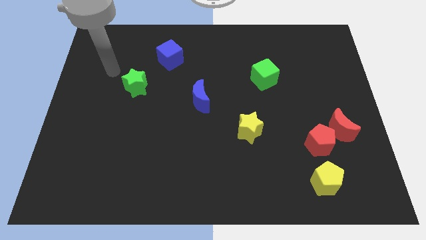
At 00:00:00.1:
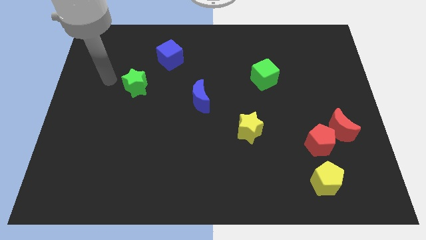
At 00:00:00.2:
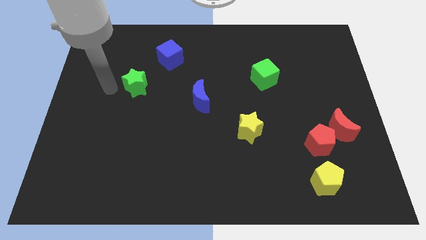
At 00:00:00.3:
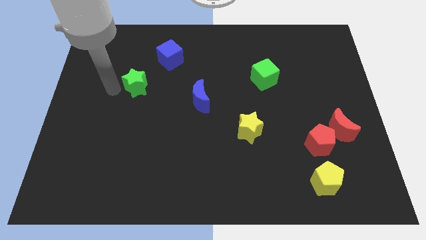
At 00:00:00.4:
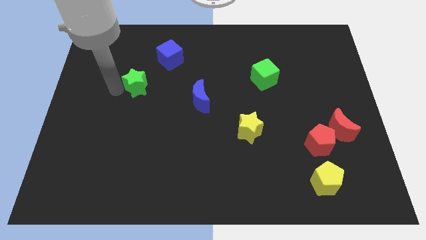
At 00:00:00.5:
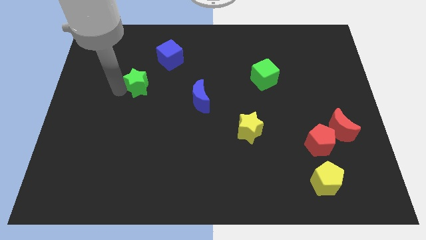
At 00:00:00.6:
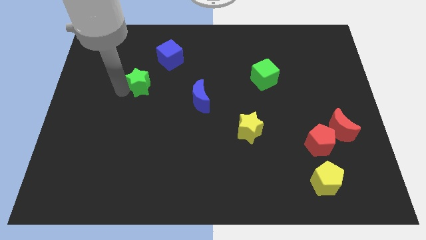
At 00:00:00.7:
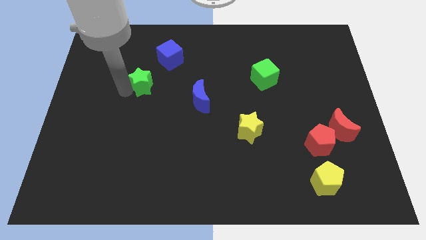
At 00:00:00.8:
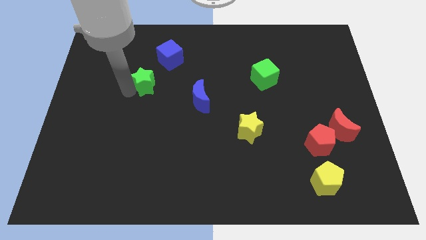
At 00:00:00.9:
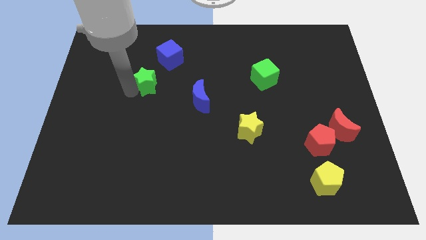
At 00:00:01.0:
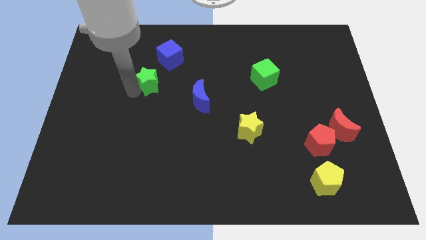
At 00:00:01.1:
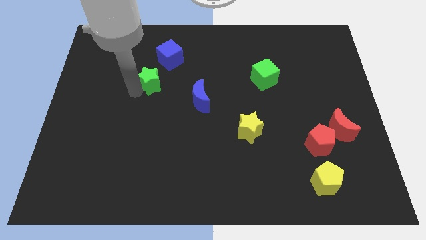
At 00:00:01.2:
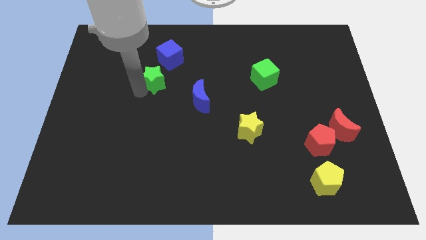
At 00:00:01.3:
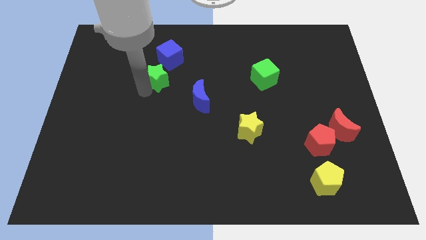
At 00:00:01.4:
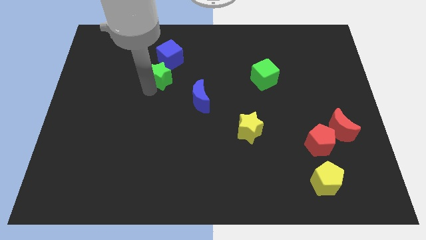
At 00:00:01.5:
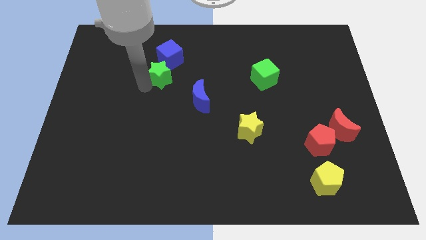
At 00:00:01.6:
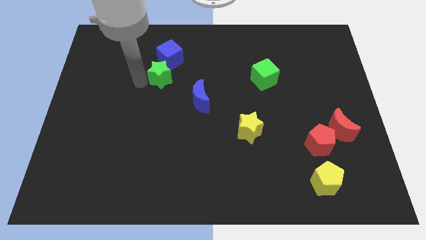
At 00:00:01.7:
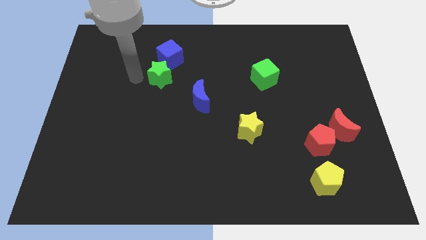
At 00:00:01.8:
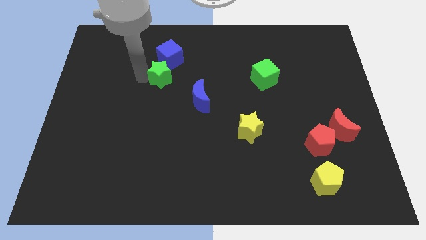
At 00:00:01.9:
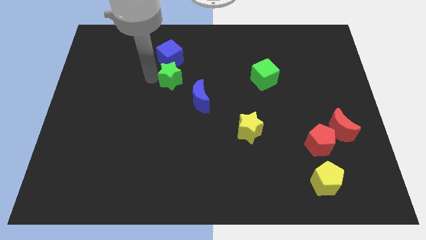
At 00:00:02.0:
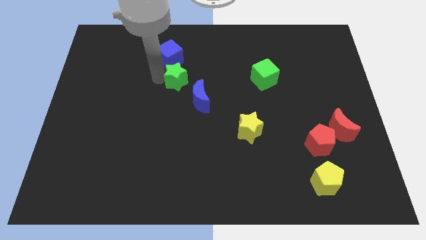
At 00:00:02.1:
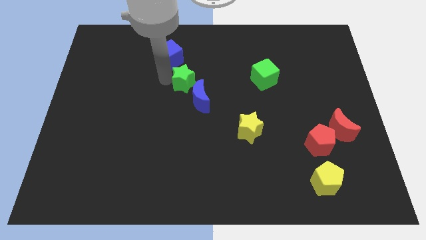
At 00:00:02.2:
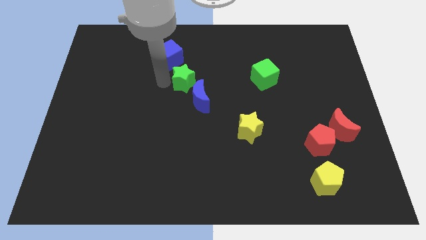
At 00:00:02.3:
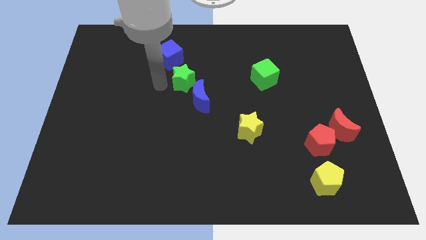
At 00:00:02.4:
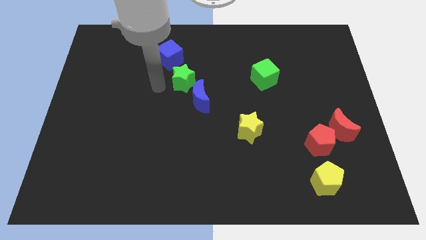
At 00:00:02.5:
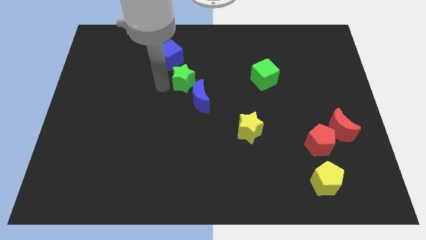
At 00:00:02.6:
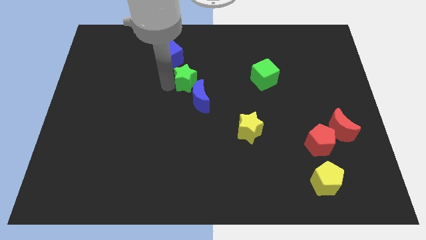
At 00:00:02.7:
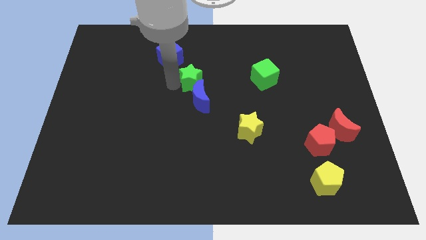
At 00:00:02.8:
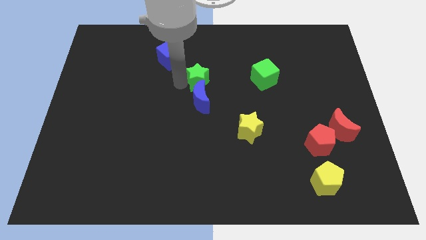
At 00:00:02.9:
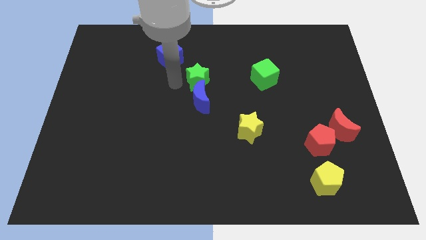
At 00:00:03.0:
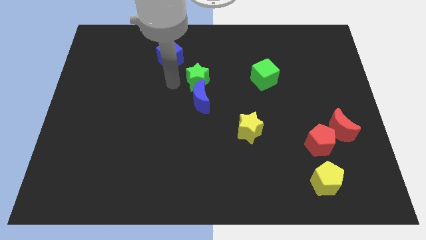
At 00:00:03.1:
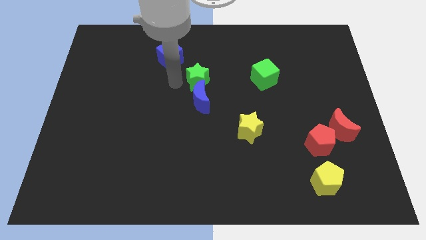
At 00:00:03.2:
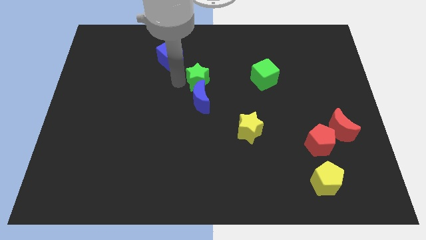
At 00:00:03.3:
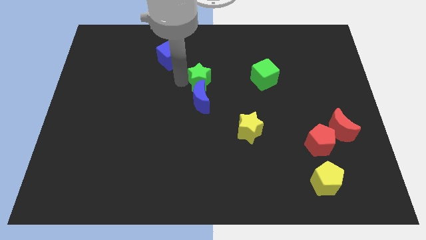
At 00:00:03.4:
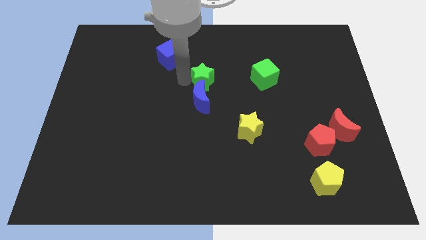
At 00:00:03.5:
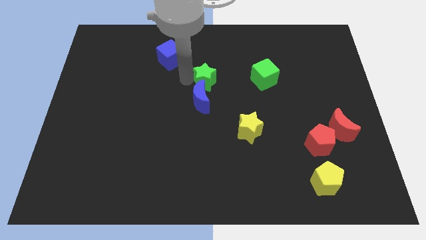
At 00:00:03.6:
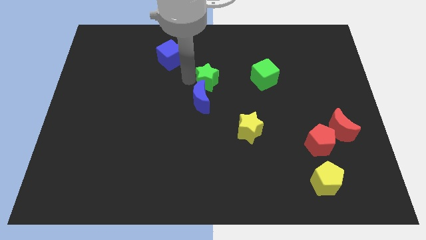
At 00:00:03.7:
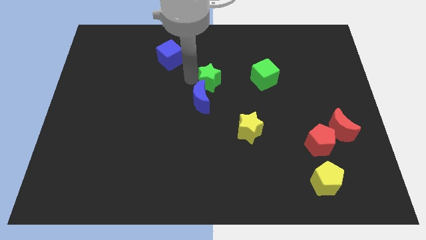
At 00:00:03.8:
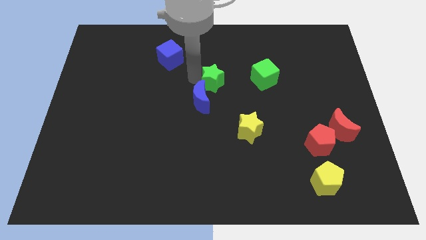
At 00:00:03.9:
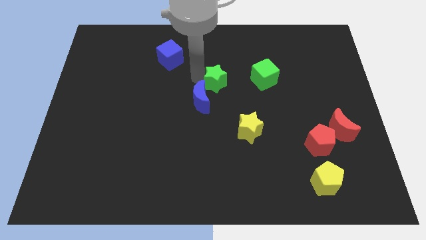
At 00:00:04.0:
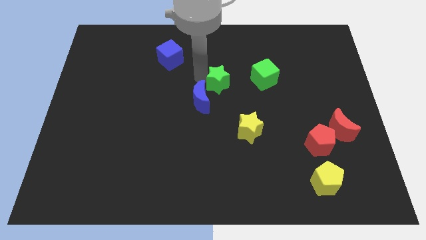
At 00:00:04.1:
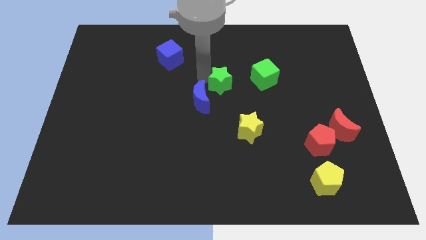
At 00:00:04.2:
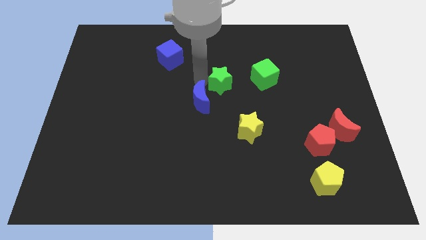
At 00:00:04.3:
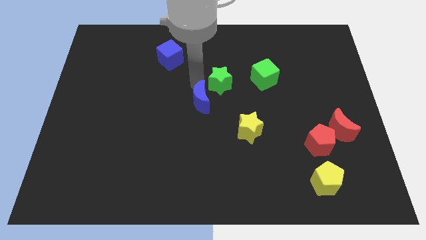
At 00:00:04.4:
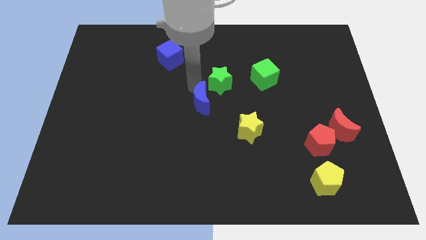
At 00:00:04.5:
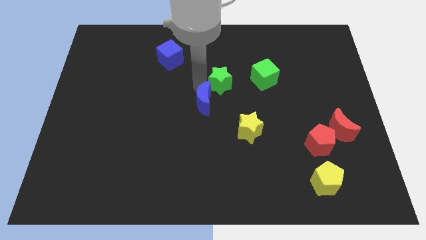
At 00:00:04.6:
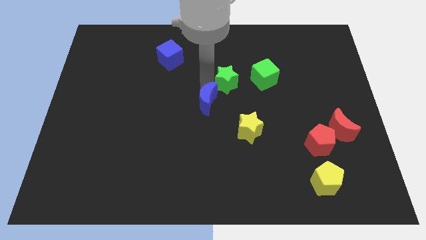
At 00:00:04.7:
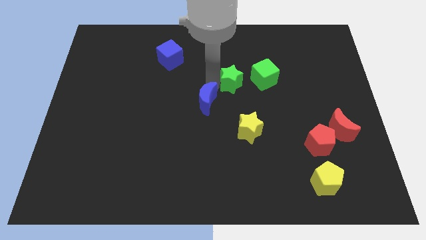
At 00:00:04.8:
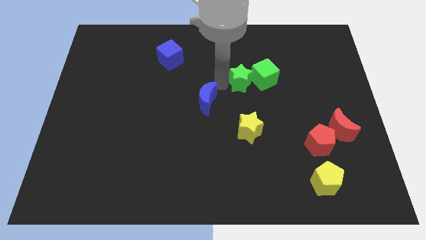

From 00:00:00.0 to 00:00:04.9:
move the green star towards the green cube

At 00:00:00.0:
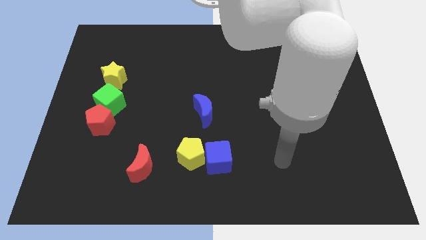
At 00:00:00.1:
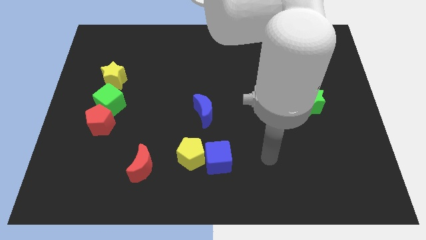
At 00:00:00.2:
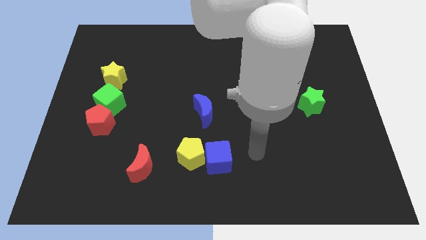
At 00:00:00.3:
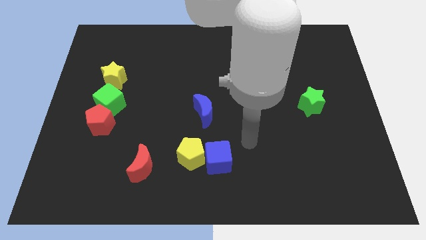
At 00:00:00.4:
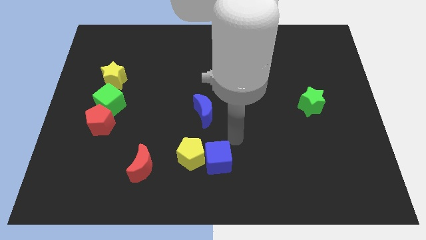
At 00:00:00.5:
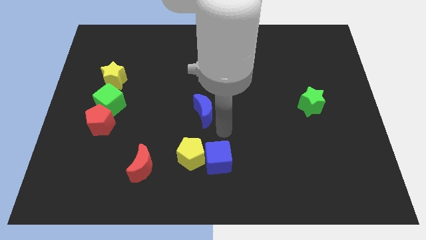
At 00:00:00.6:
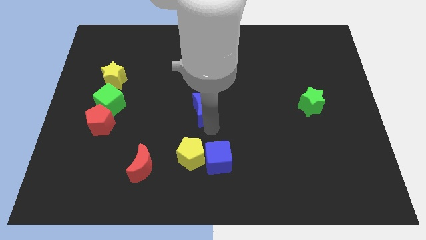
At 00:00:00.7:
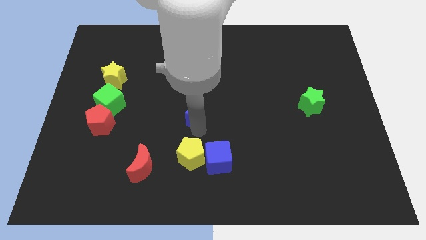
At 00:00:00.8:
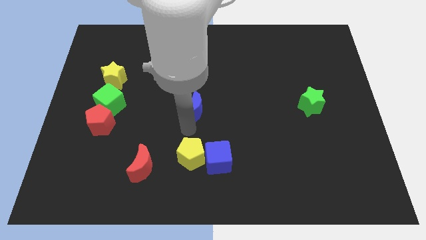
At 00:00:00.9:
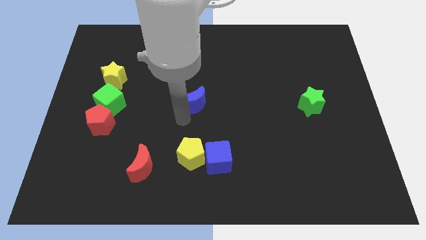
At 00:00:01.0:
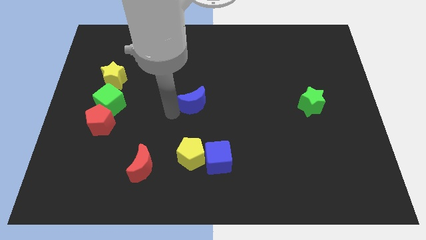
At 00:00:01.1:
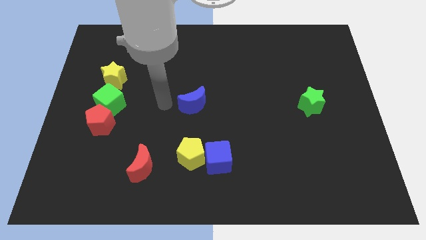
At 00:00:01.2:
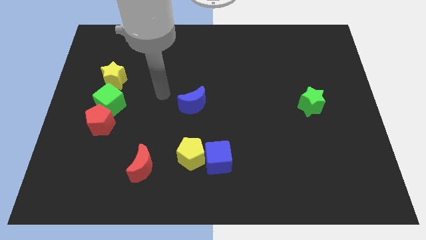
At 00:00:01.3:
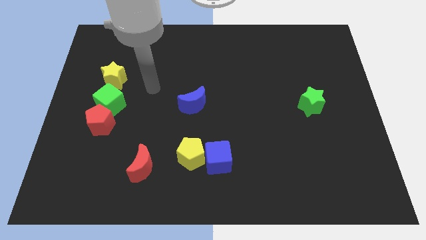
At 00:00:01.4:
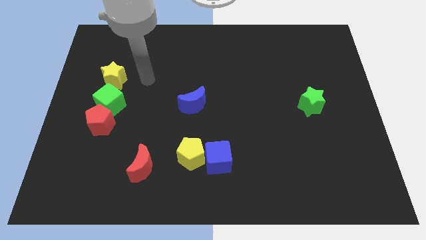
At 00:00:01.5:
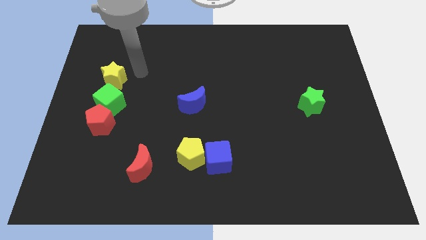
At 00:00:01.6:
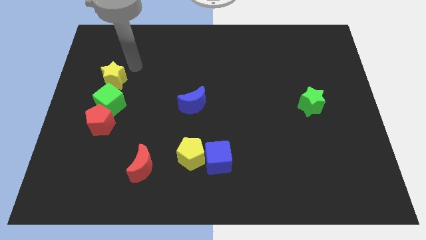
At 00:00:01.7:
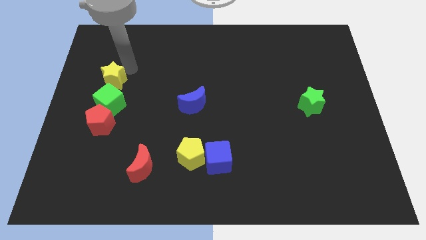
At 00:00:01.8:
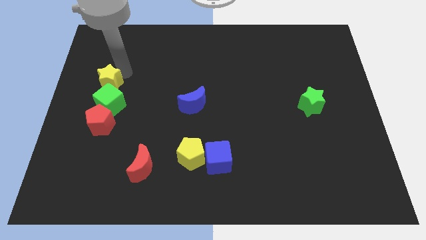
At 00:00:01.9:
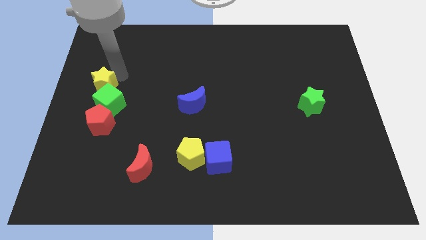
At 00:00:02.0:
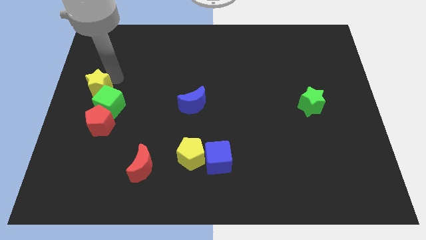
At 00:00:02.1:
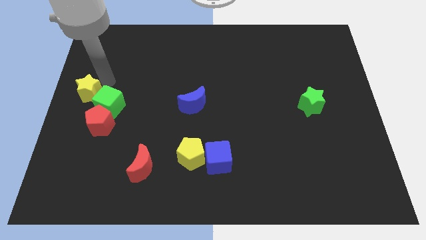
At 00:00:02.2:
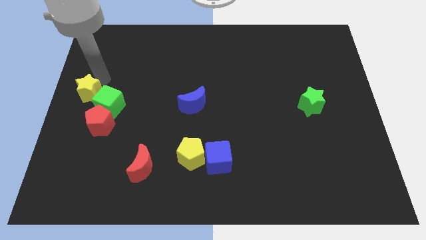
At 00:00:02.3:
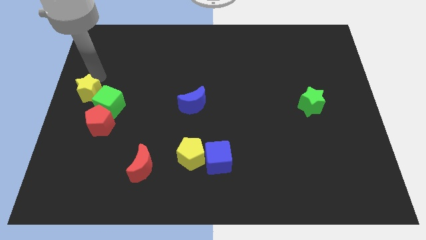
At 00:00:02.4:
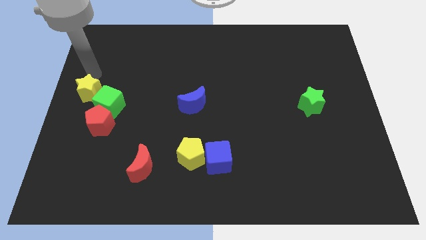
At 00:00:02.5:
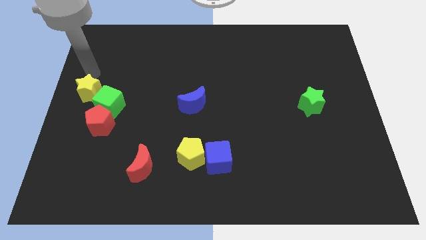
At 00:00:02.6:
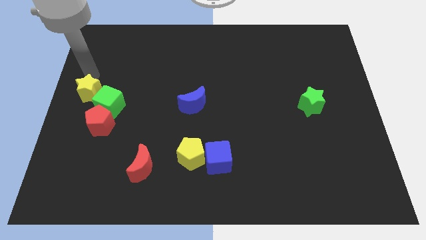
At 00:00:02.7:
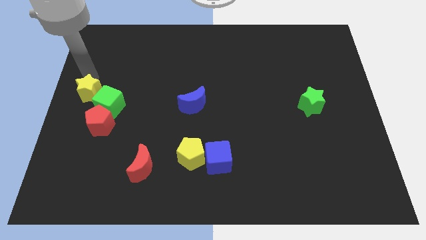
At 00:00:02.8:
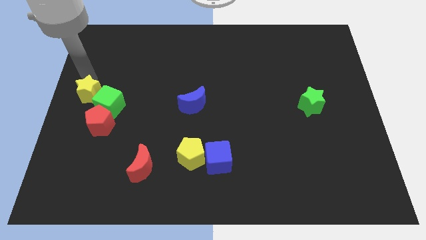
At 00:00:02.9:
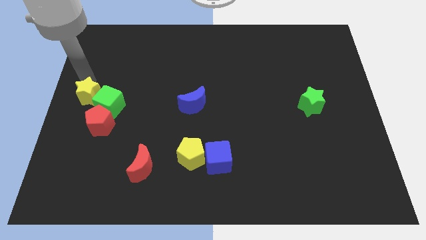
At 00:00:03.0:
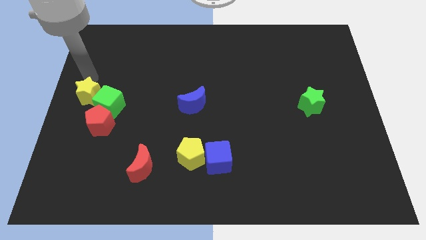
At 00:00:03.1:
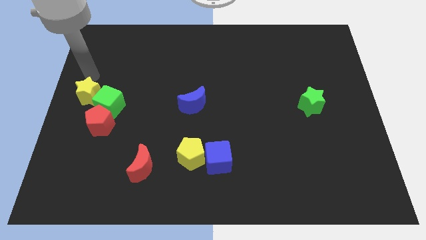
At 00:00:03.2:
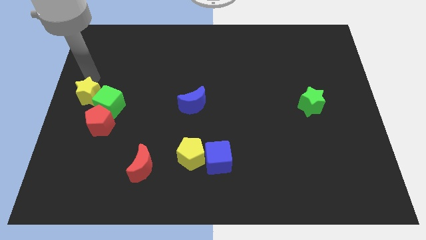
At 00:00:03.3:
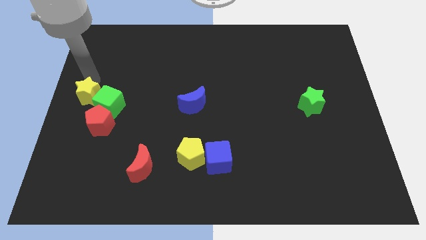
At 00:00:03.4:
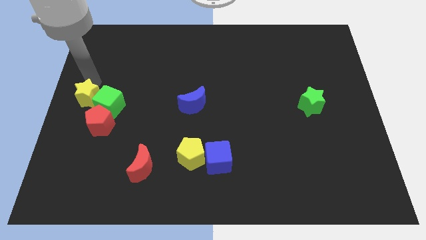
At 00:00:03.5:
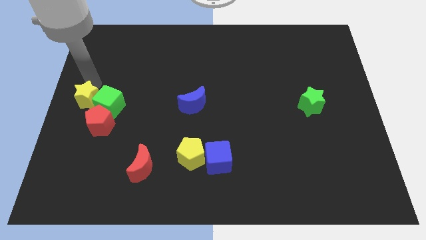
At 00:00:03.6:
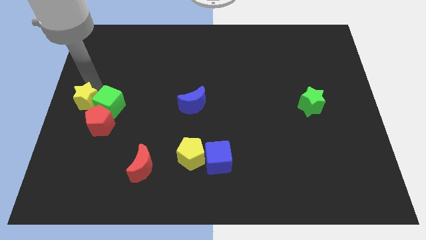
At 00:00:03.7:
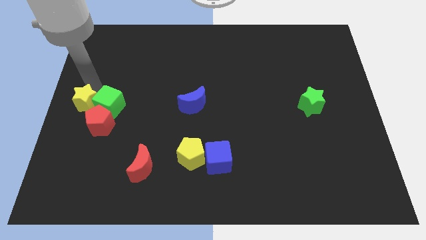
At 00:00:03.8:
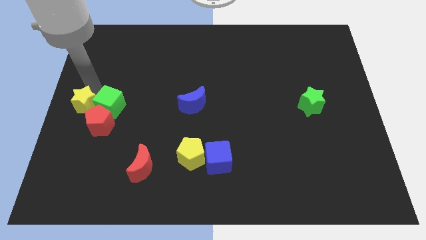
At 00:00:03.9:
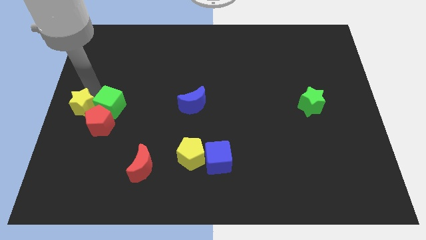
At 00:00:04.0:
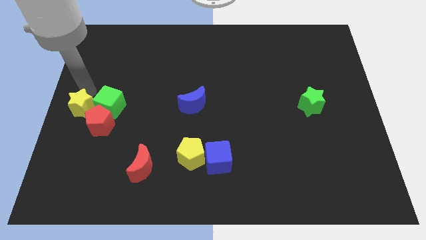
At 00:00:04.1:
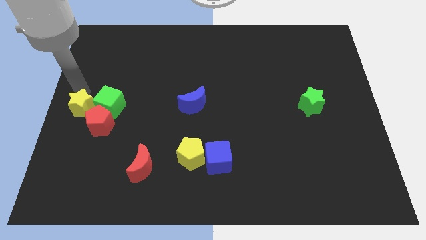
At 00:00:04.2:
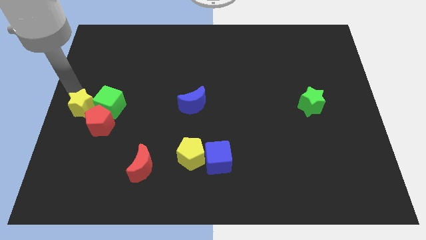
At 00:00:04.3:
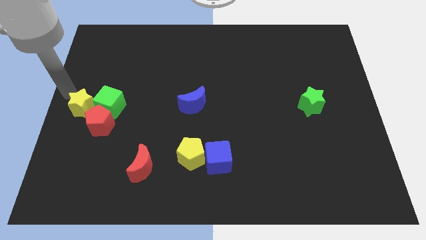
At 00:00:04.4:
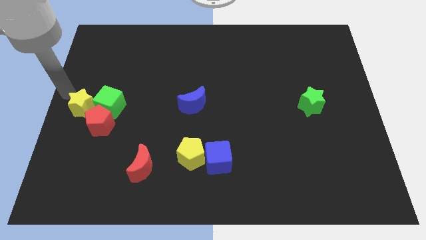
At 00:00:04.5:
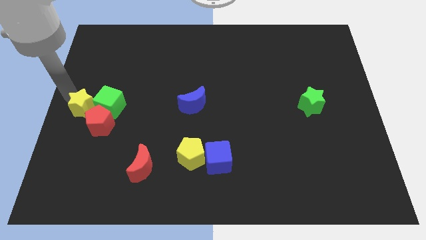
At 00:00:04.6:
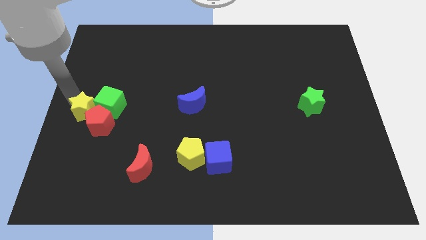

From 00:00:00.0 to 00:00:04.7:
slide the yellow star next to the red pentagon
